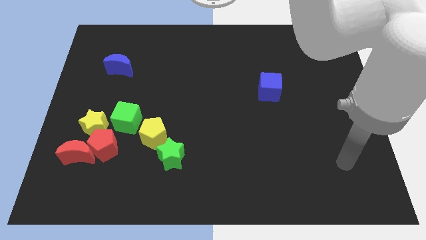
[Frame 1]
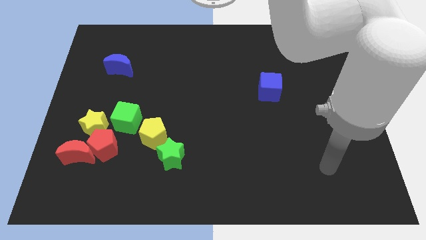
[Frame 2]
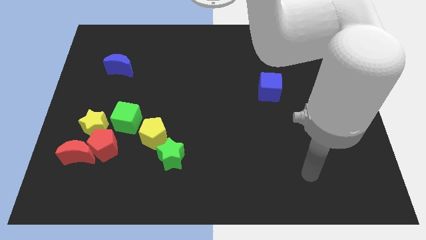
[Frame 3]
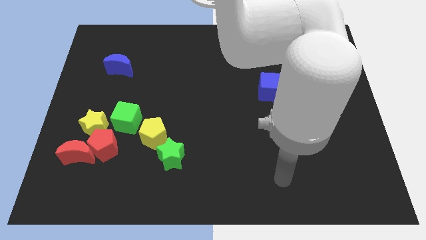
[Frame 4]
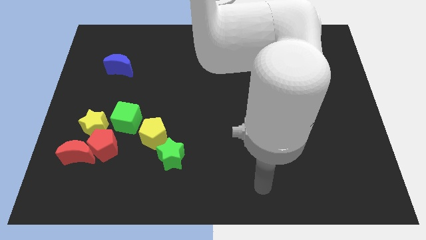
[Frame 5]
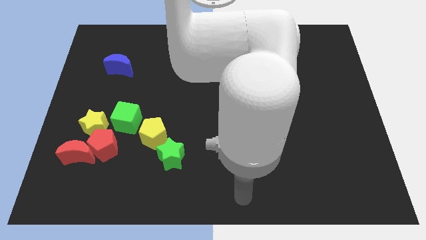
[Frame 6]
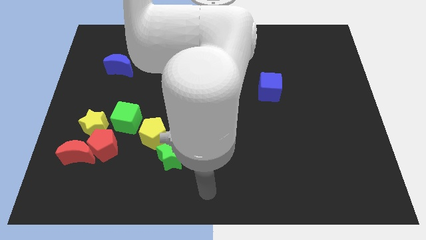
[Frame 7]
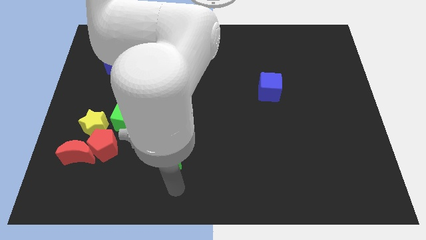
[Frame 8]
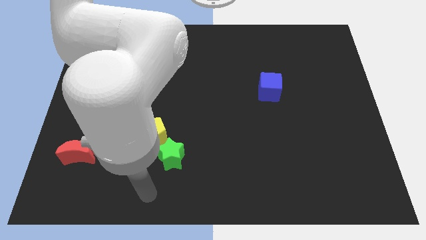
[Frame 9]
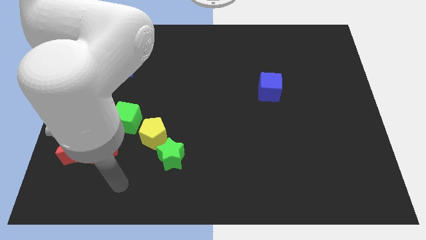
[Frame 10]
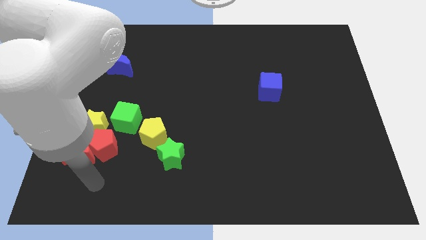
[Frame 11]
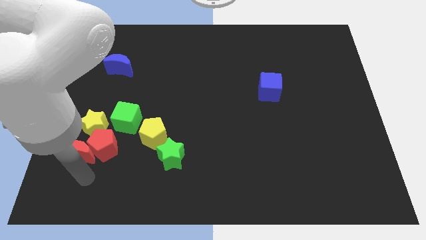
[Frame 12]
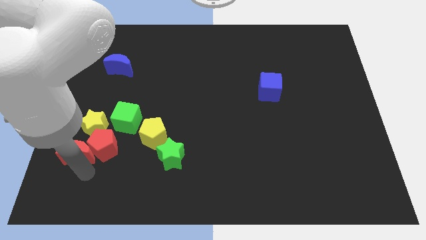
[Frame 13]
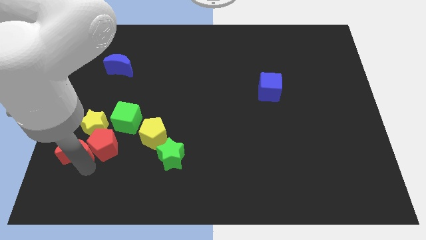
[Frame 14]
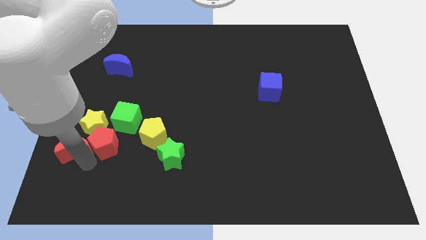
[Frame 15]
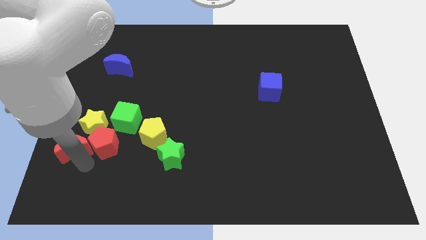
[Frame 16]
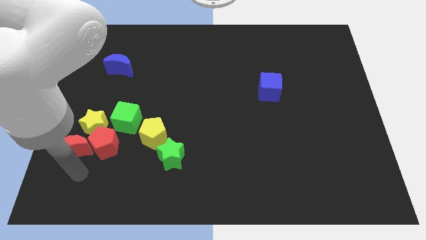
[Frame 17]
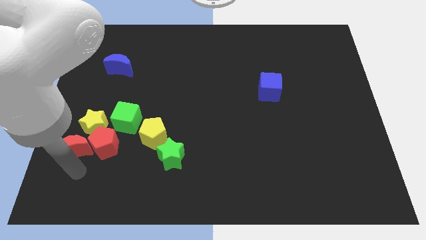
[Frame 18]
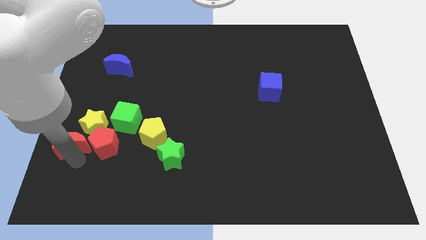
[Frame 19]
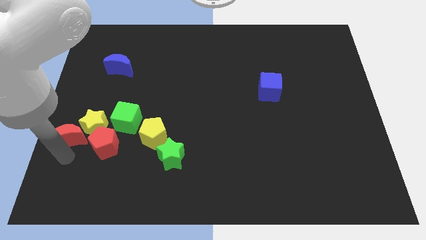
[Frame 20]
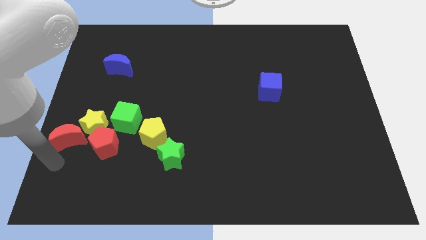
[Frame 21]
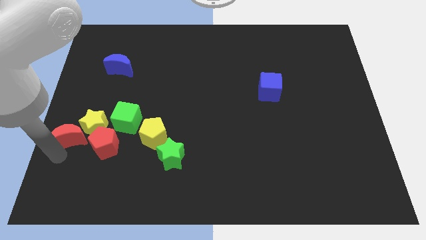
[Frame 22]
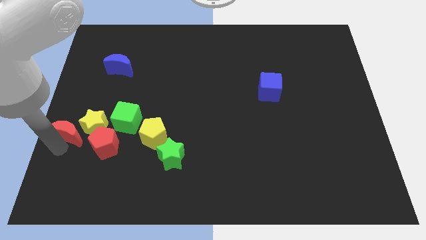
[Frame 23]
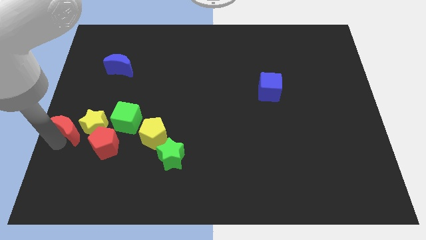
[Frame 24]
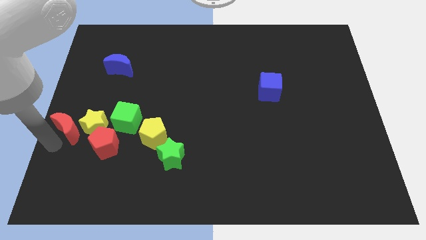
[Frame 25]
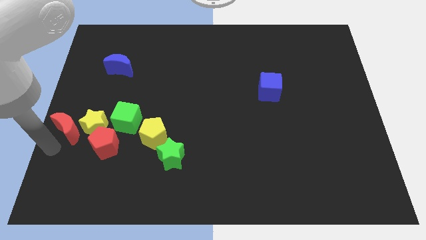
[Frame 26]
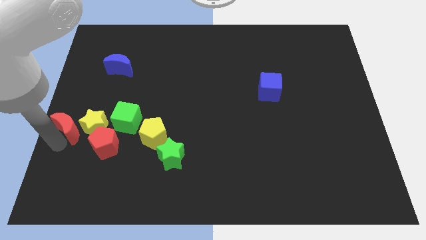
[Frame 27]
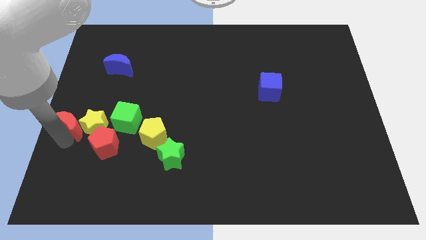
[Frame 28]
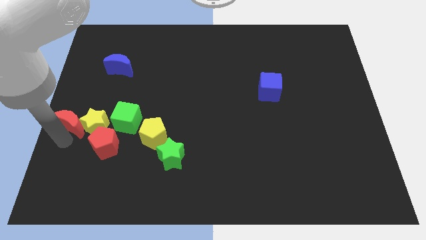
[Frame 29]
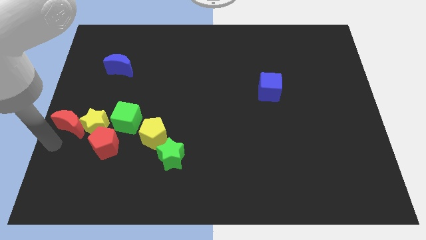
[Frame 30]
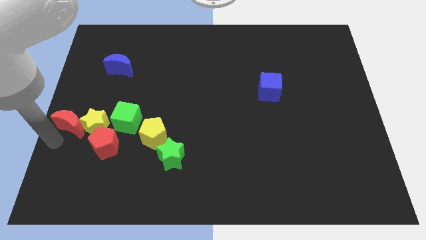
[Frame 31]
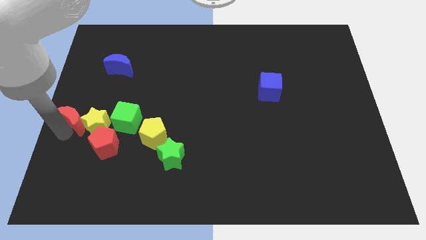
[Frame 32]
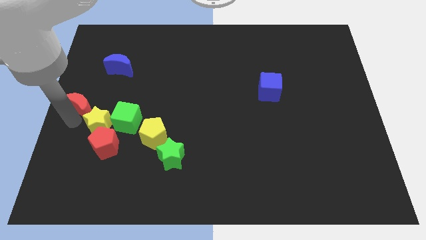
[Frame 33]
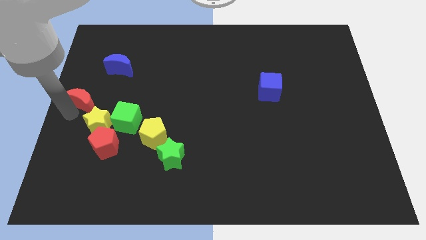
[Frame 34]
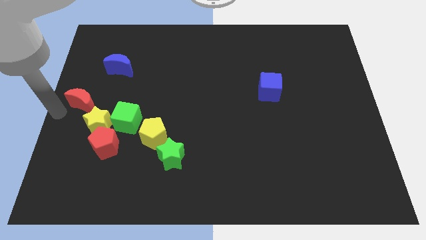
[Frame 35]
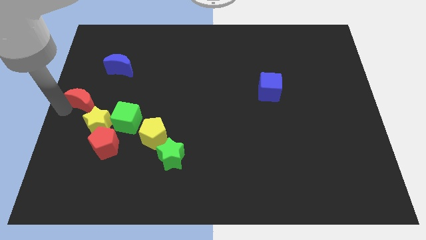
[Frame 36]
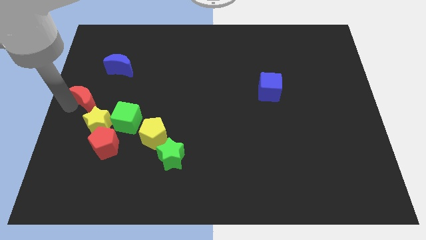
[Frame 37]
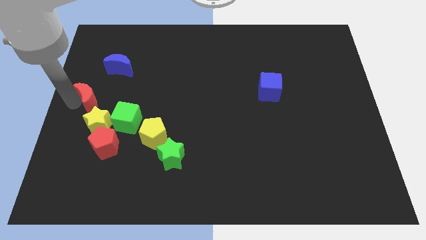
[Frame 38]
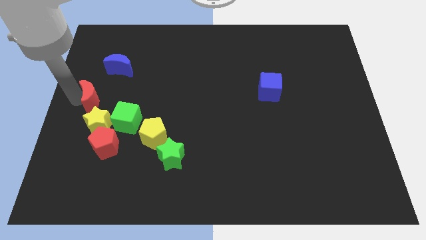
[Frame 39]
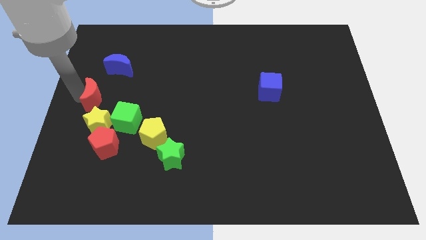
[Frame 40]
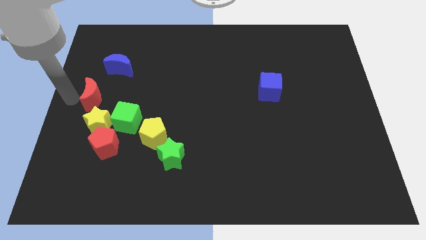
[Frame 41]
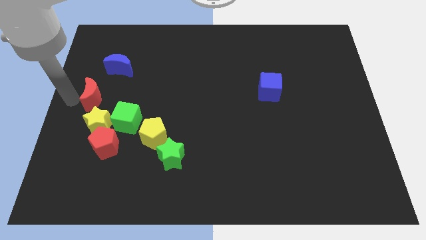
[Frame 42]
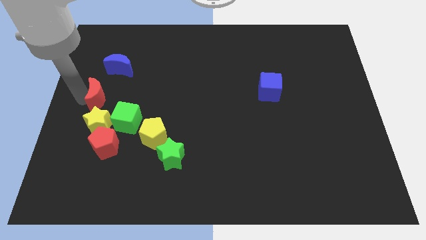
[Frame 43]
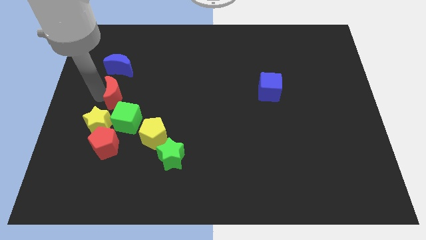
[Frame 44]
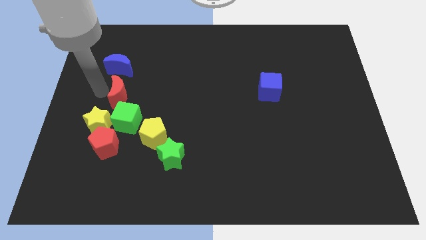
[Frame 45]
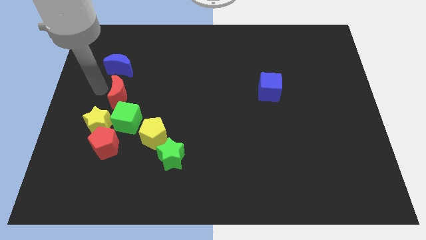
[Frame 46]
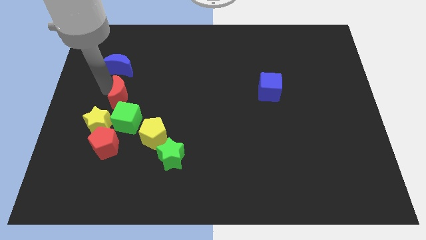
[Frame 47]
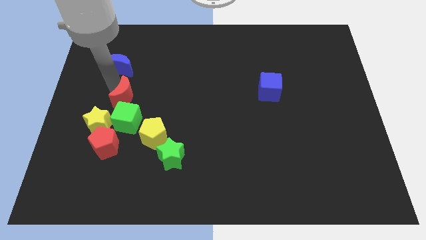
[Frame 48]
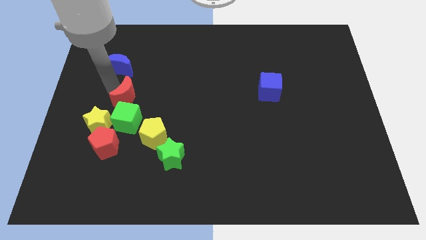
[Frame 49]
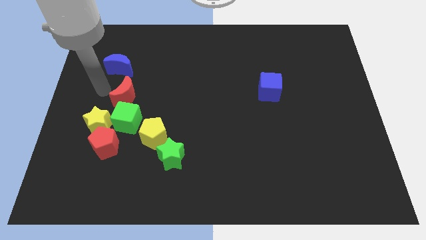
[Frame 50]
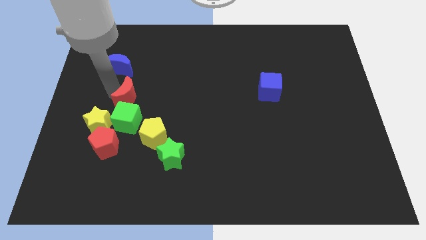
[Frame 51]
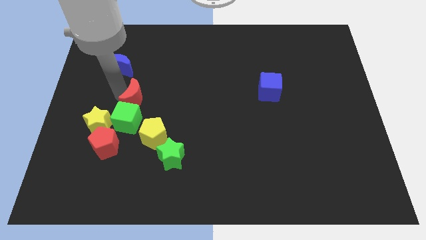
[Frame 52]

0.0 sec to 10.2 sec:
move the red moon to the top right side of the green cube

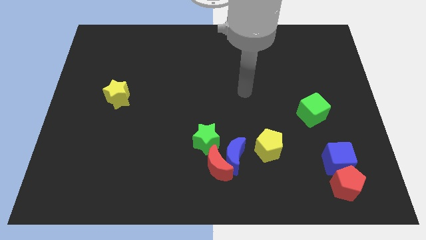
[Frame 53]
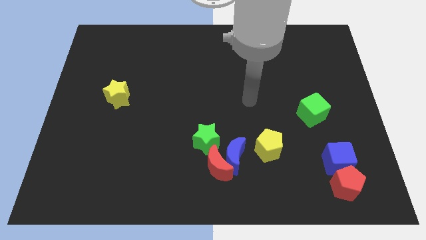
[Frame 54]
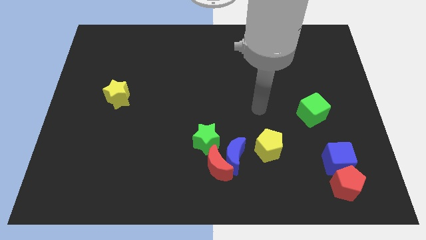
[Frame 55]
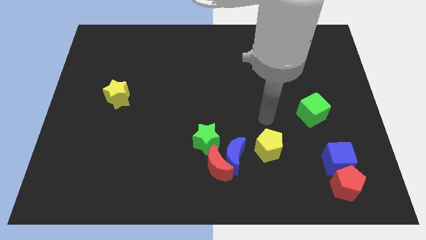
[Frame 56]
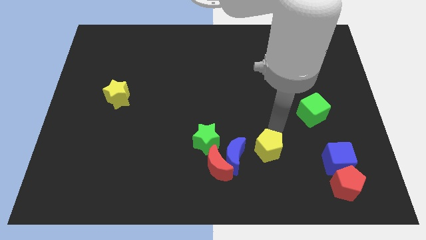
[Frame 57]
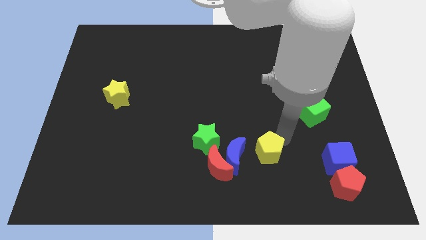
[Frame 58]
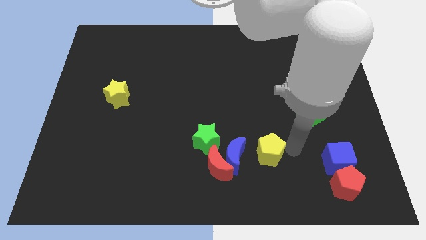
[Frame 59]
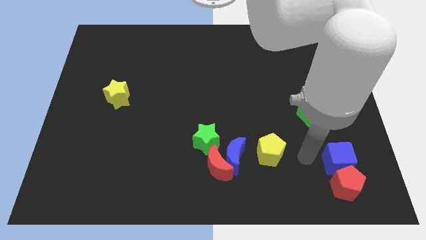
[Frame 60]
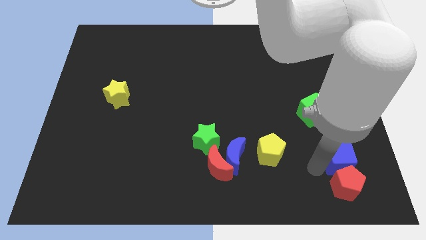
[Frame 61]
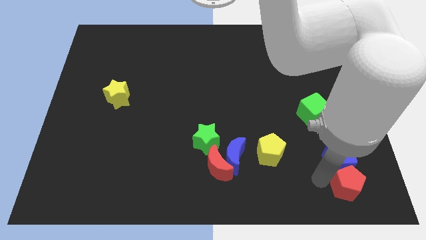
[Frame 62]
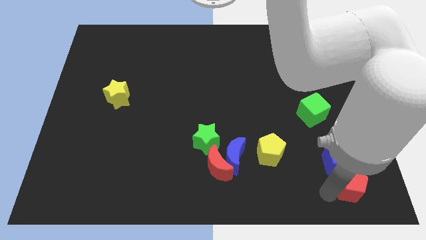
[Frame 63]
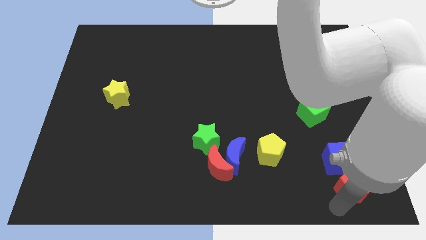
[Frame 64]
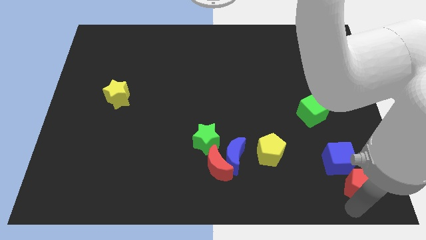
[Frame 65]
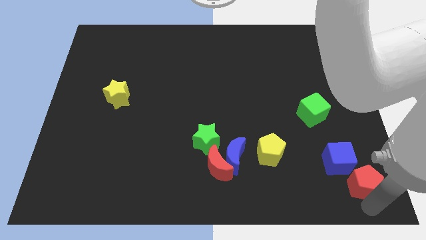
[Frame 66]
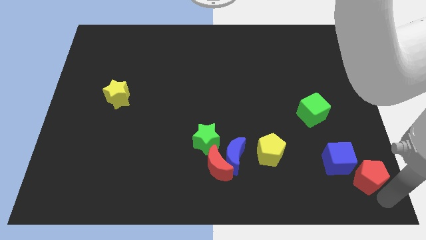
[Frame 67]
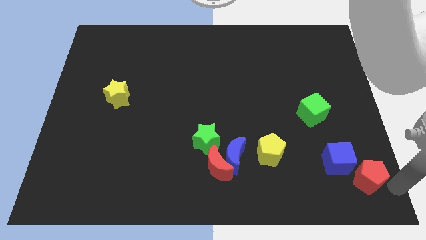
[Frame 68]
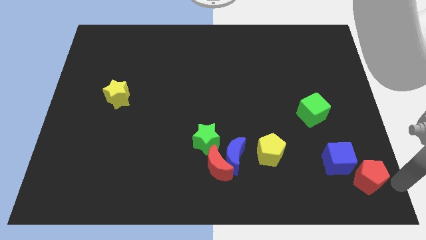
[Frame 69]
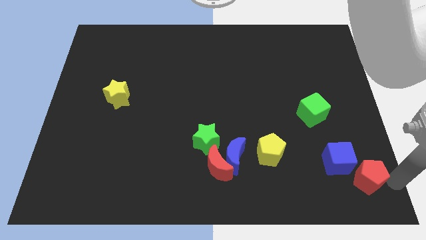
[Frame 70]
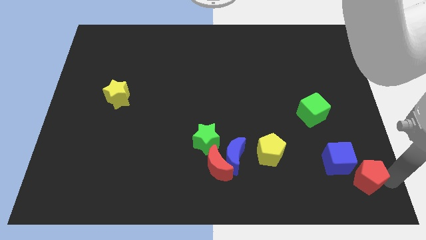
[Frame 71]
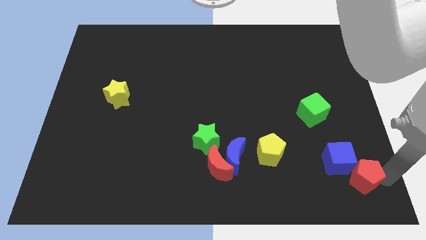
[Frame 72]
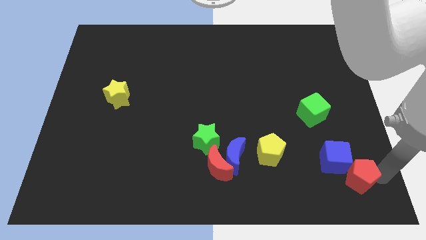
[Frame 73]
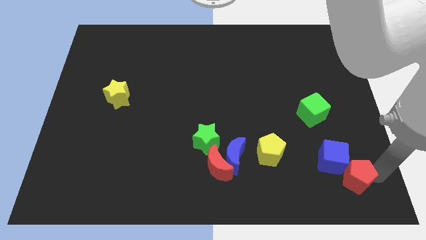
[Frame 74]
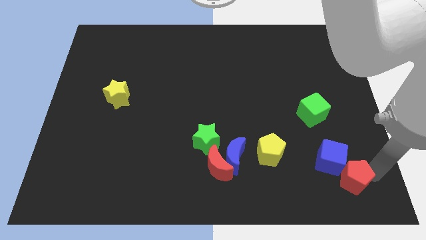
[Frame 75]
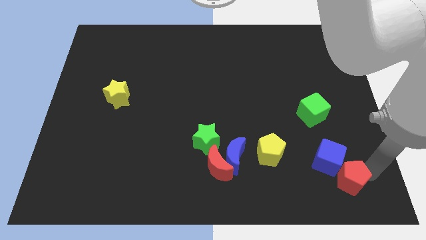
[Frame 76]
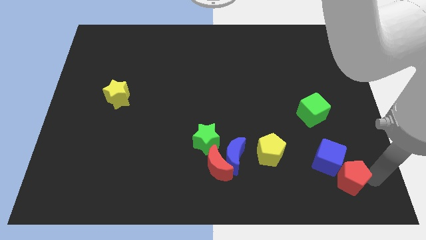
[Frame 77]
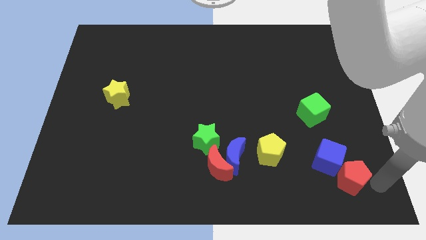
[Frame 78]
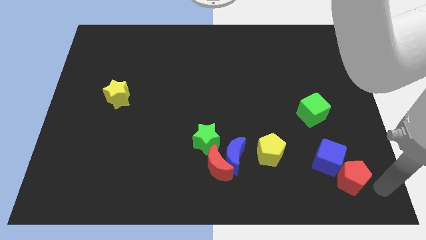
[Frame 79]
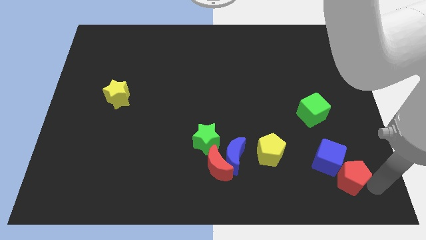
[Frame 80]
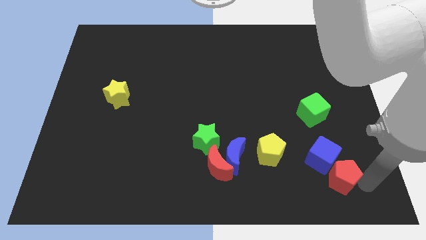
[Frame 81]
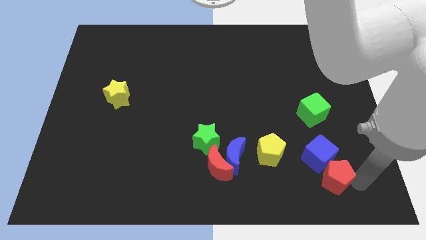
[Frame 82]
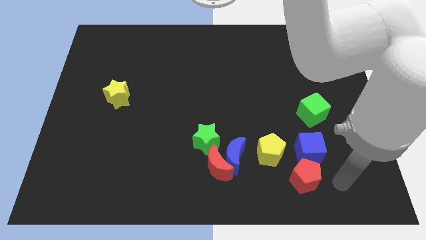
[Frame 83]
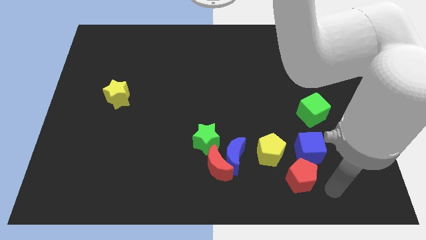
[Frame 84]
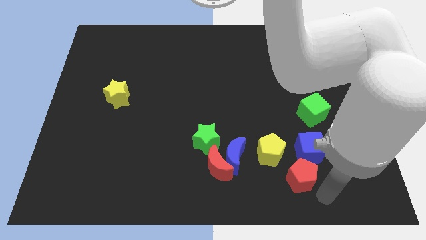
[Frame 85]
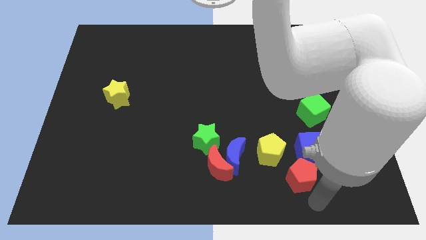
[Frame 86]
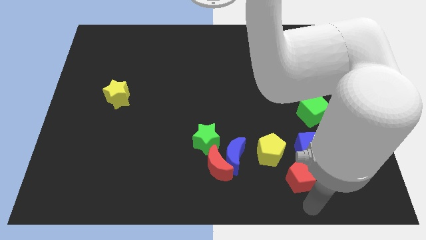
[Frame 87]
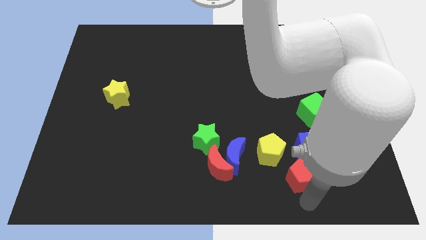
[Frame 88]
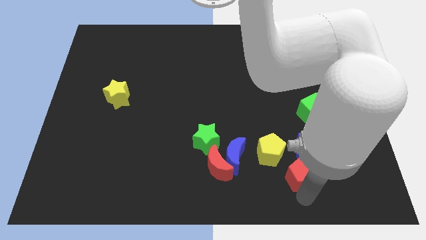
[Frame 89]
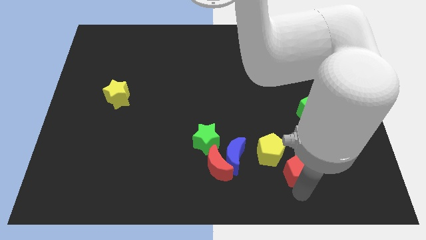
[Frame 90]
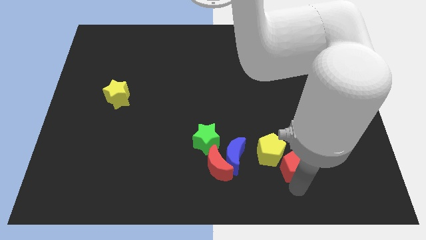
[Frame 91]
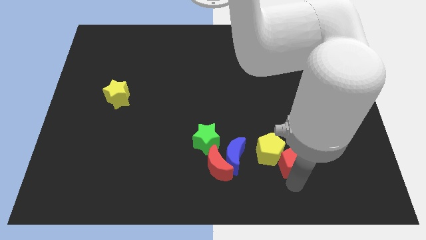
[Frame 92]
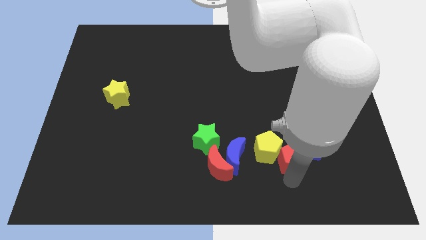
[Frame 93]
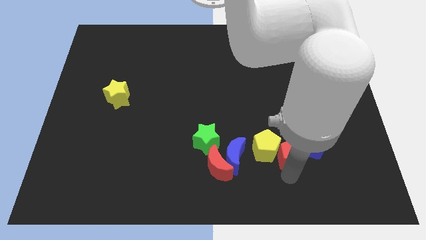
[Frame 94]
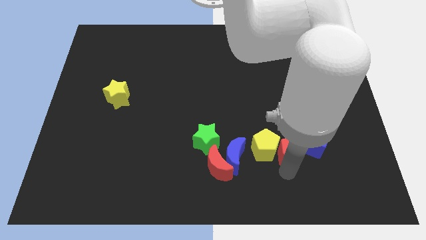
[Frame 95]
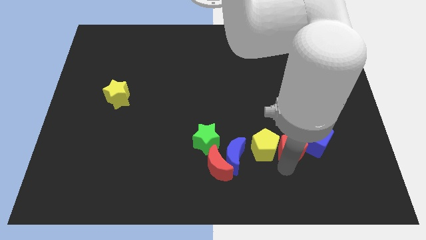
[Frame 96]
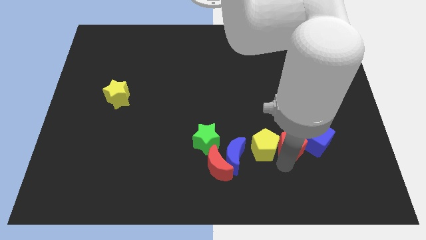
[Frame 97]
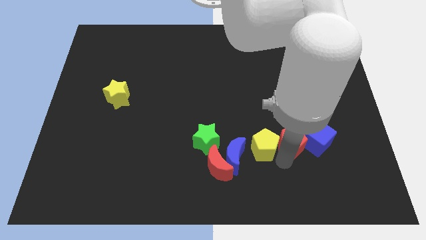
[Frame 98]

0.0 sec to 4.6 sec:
push the red pentagon to the top left side of the blue cube
